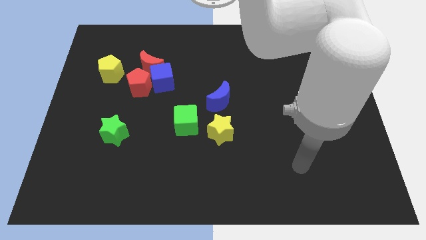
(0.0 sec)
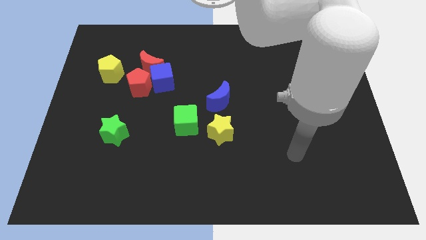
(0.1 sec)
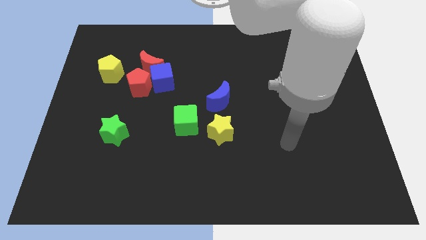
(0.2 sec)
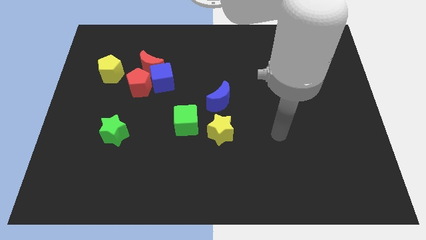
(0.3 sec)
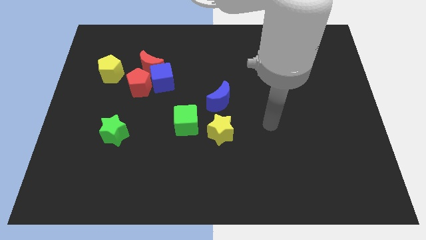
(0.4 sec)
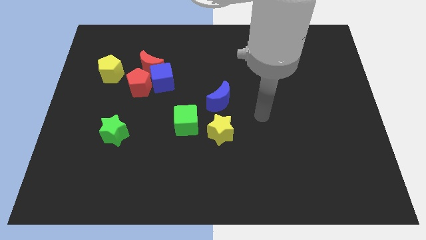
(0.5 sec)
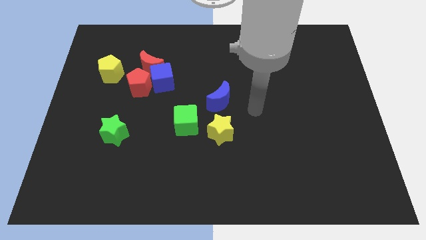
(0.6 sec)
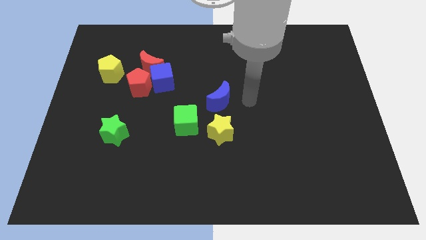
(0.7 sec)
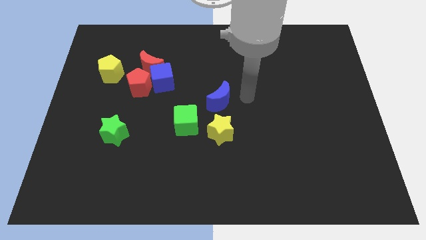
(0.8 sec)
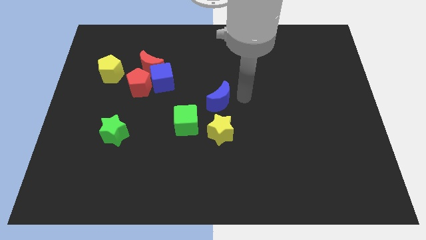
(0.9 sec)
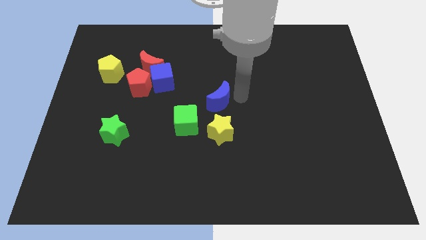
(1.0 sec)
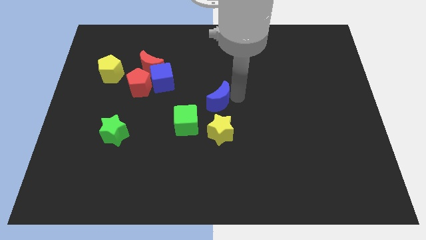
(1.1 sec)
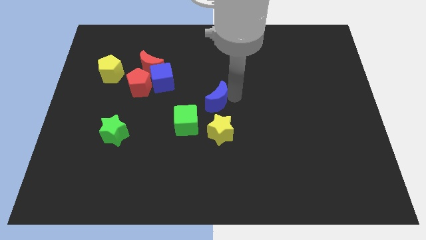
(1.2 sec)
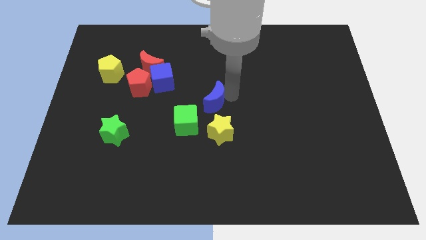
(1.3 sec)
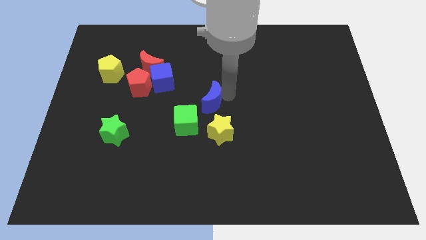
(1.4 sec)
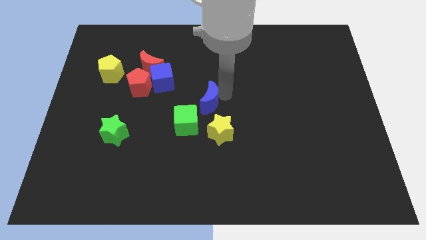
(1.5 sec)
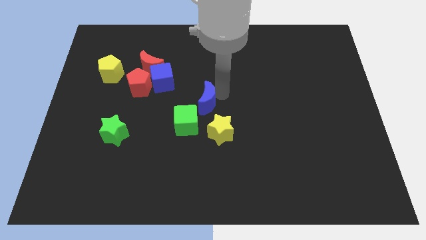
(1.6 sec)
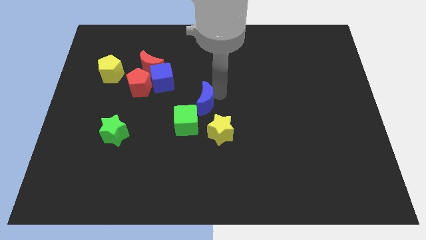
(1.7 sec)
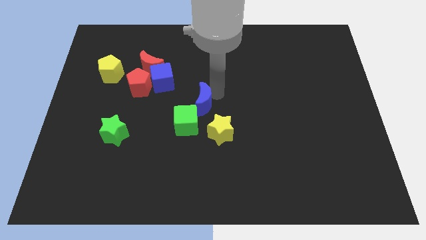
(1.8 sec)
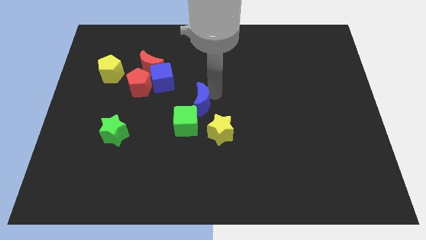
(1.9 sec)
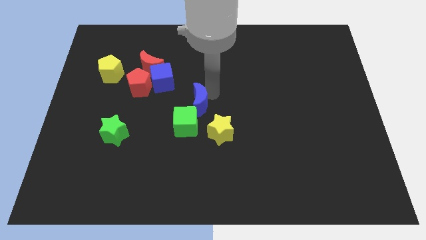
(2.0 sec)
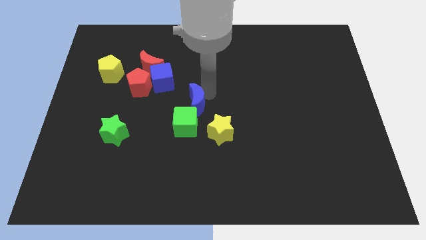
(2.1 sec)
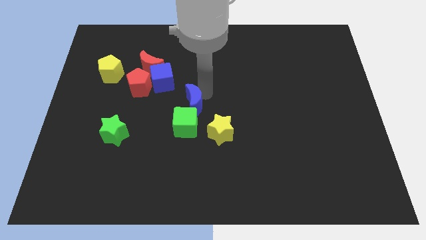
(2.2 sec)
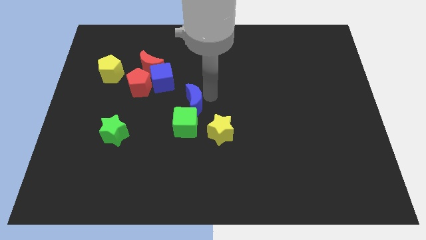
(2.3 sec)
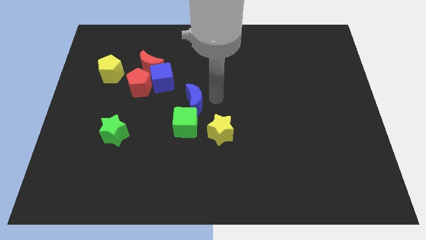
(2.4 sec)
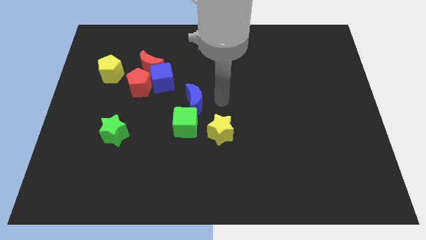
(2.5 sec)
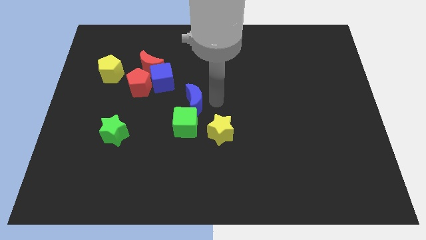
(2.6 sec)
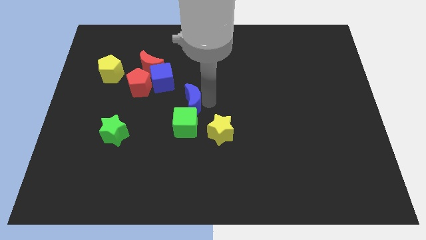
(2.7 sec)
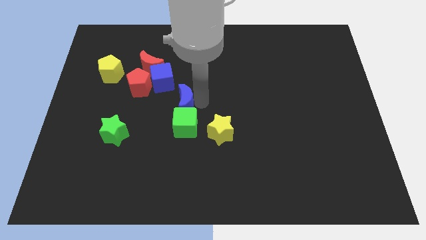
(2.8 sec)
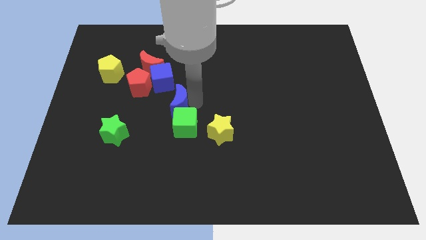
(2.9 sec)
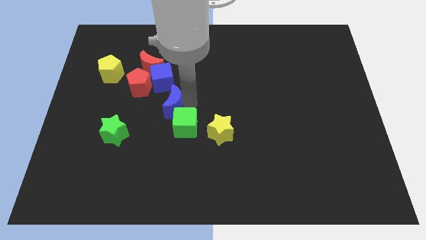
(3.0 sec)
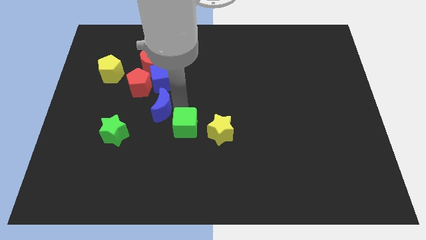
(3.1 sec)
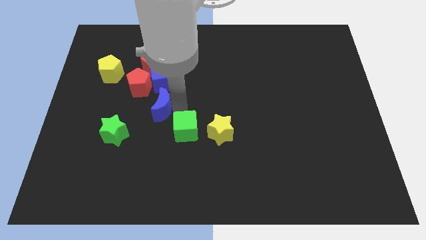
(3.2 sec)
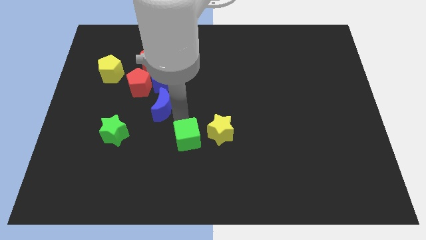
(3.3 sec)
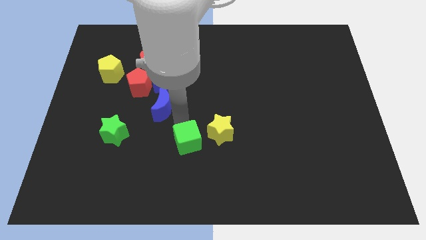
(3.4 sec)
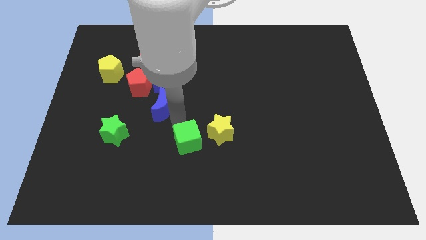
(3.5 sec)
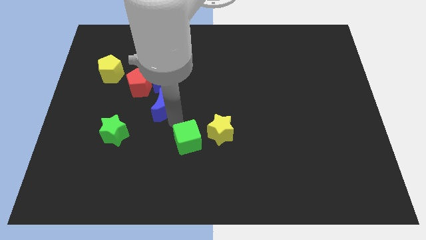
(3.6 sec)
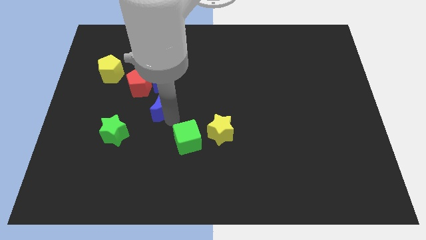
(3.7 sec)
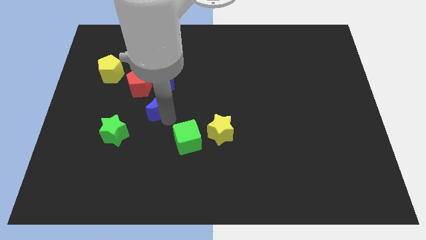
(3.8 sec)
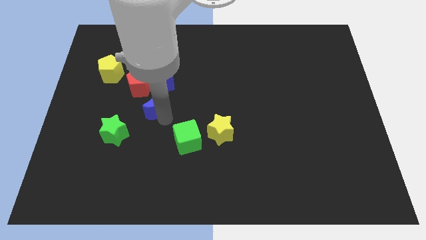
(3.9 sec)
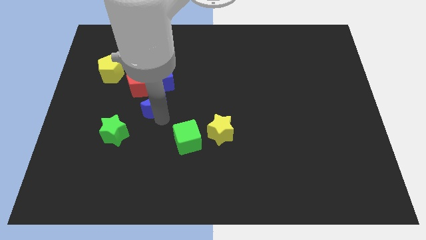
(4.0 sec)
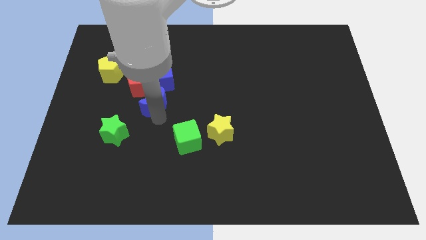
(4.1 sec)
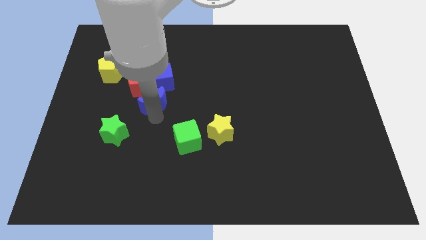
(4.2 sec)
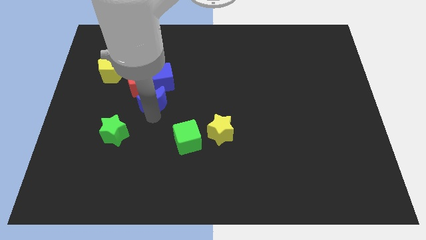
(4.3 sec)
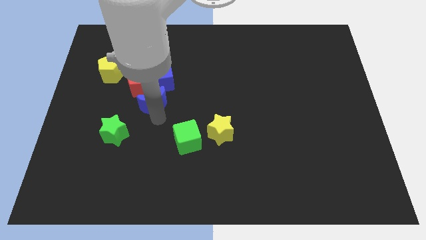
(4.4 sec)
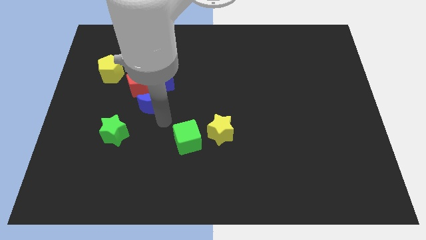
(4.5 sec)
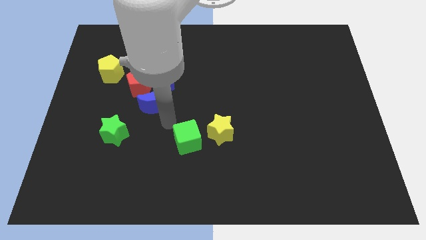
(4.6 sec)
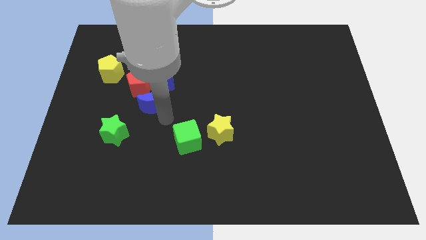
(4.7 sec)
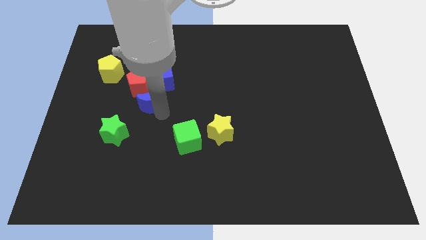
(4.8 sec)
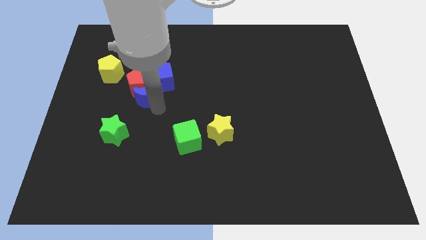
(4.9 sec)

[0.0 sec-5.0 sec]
slide the blue moon towards the red pentagon

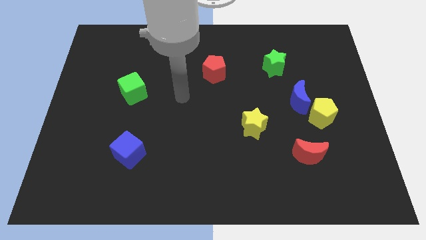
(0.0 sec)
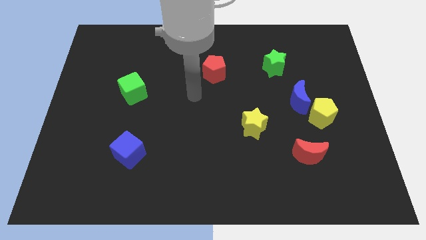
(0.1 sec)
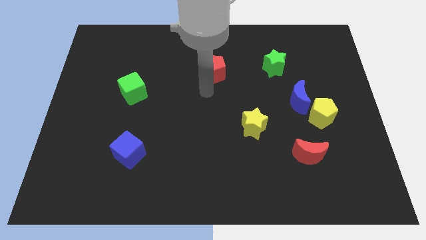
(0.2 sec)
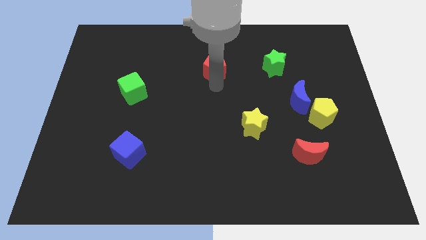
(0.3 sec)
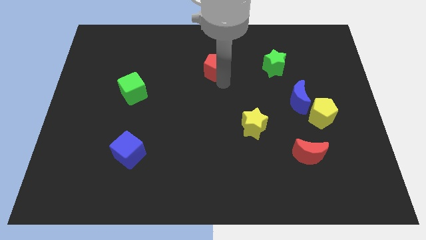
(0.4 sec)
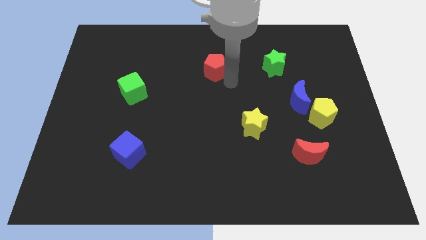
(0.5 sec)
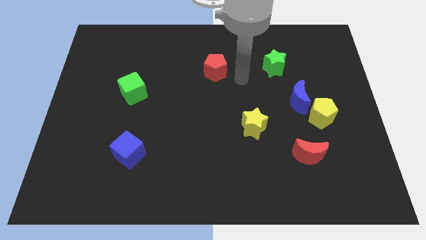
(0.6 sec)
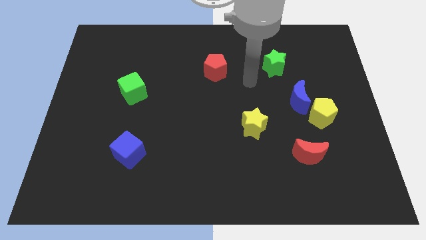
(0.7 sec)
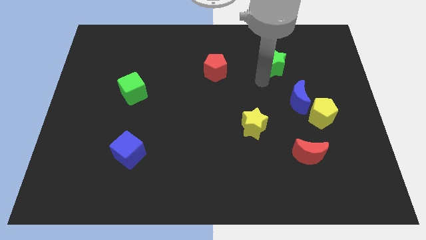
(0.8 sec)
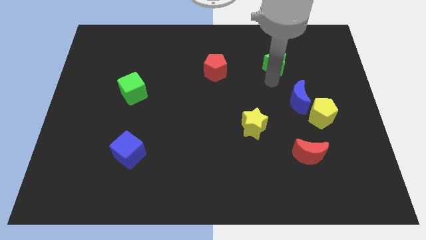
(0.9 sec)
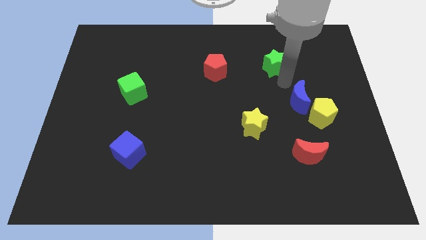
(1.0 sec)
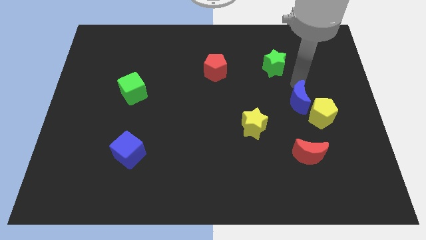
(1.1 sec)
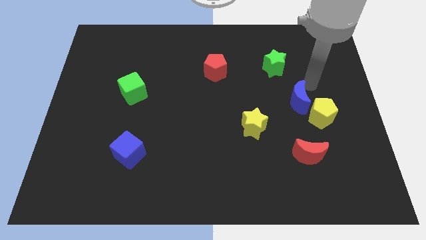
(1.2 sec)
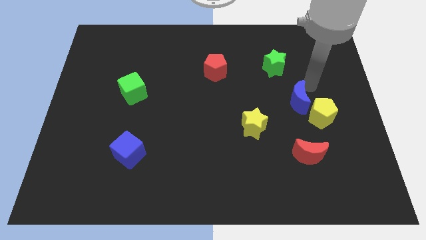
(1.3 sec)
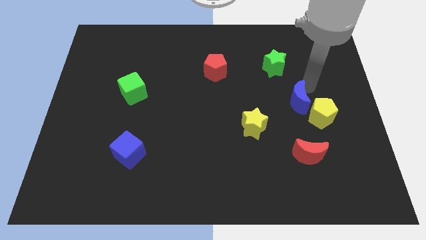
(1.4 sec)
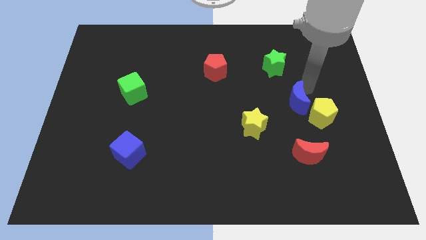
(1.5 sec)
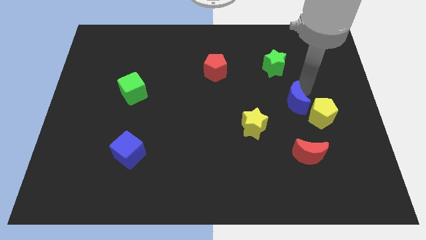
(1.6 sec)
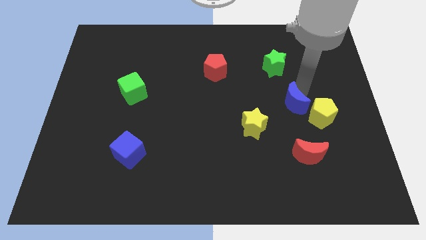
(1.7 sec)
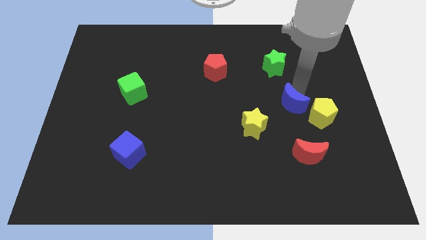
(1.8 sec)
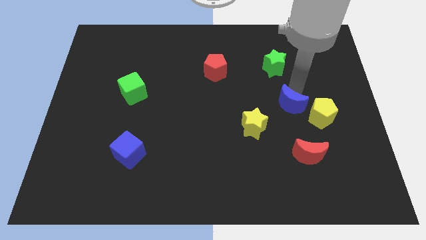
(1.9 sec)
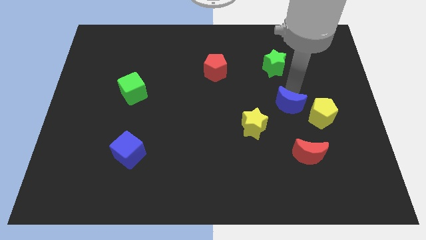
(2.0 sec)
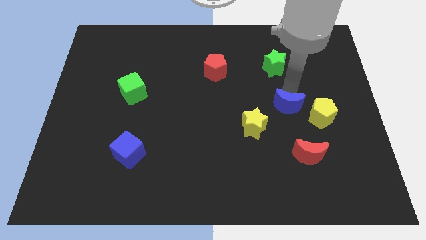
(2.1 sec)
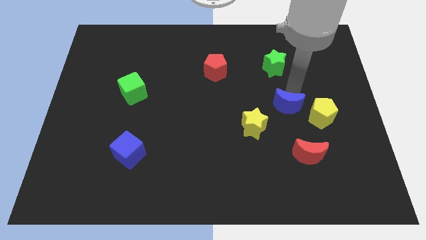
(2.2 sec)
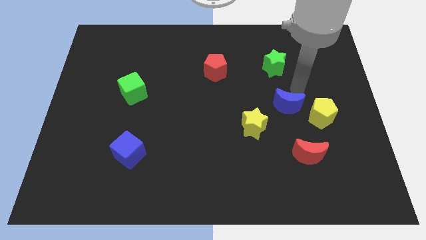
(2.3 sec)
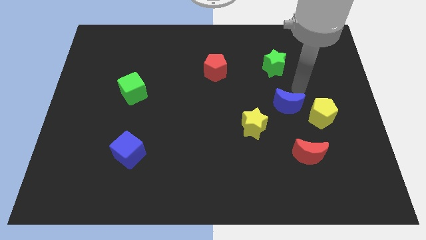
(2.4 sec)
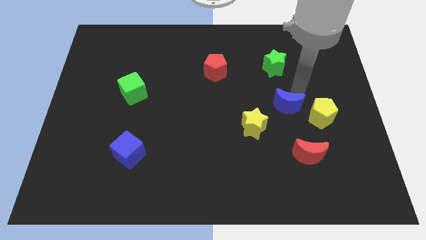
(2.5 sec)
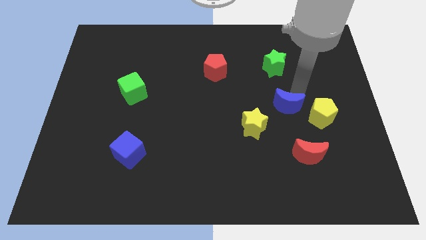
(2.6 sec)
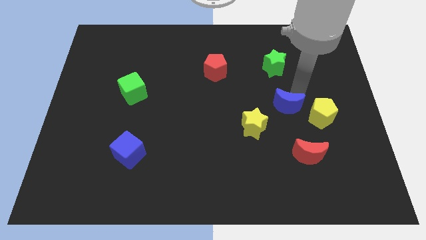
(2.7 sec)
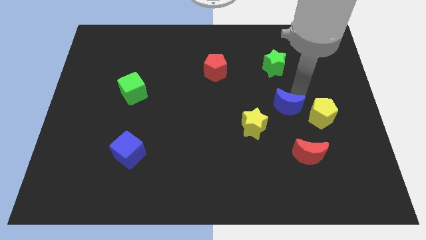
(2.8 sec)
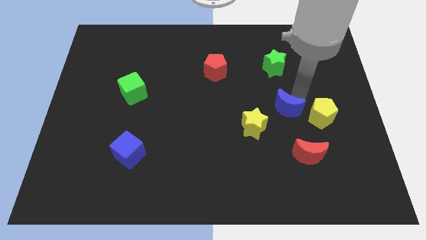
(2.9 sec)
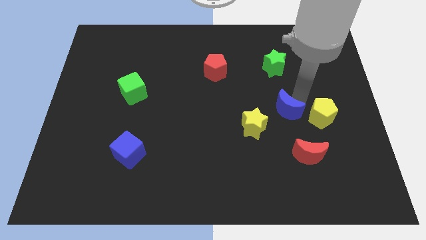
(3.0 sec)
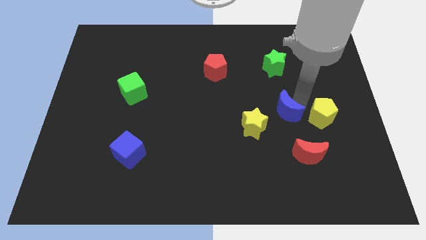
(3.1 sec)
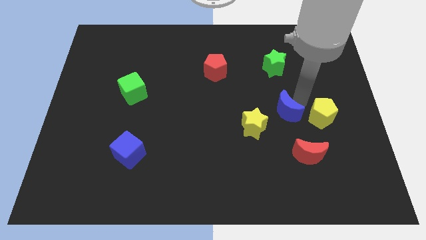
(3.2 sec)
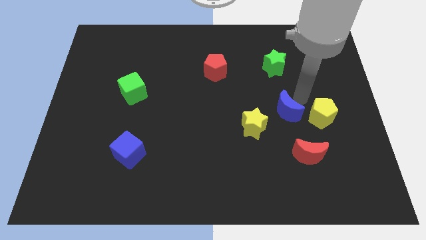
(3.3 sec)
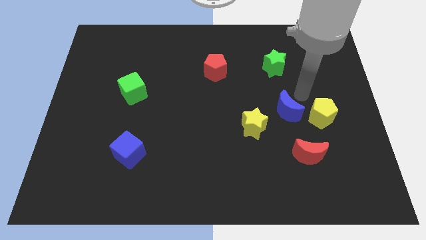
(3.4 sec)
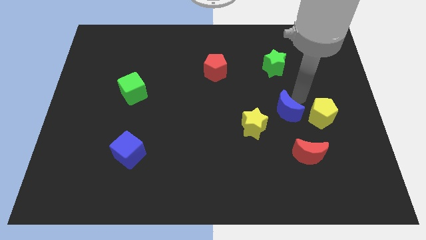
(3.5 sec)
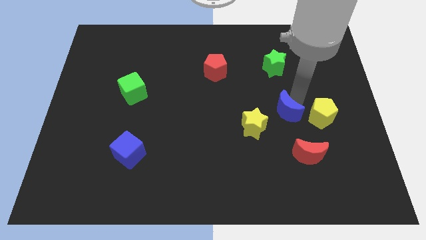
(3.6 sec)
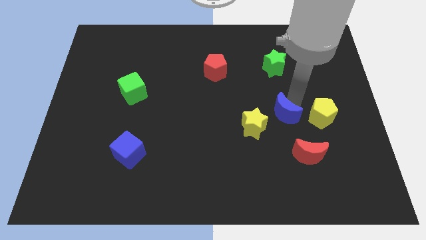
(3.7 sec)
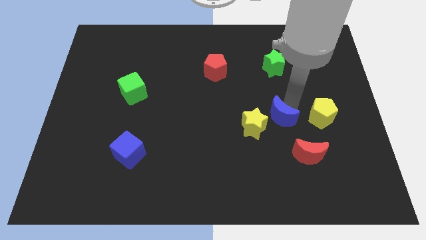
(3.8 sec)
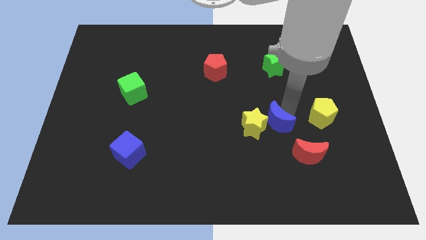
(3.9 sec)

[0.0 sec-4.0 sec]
push the blue moon to the yellow star
